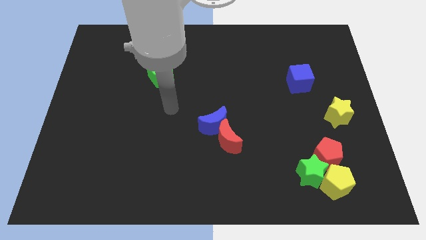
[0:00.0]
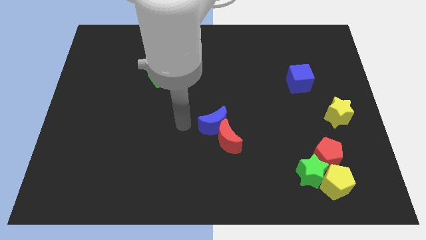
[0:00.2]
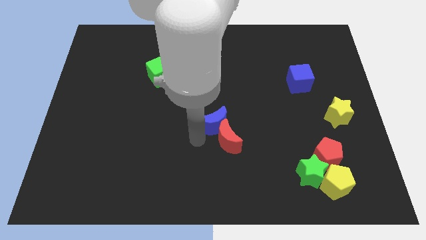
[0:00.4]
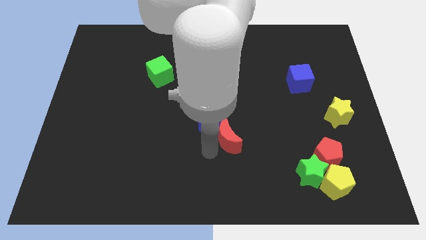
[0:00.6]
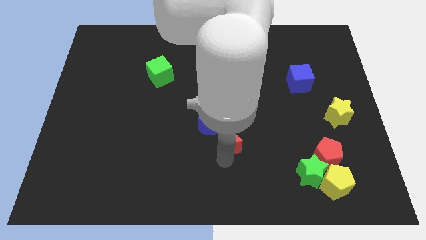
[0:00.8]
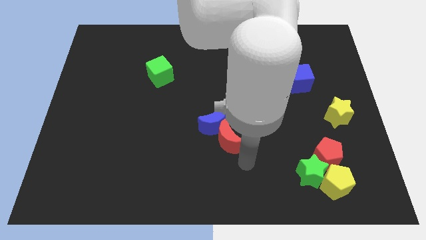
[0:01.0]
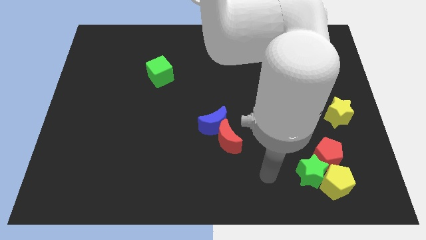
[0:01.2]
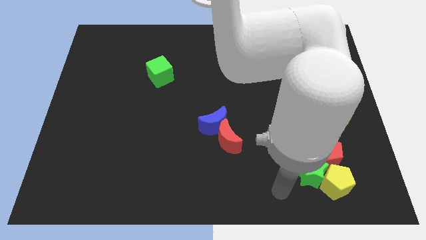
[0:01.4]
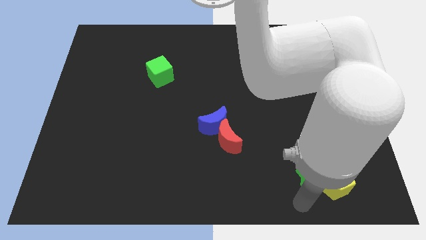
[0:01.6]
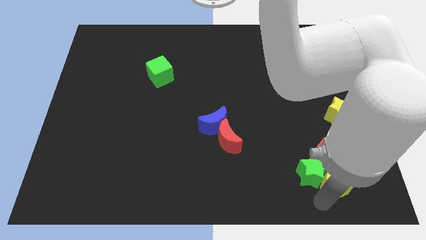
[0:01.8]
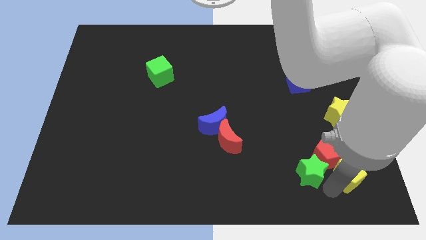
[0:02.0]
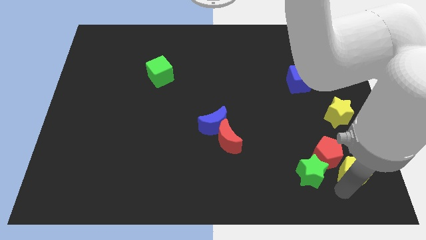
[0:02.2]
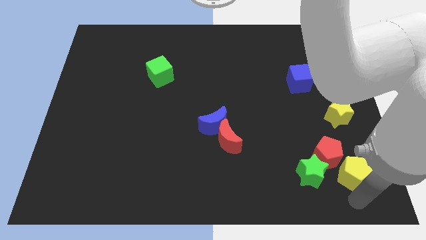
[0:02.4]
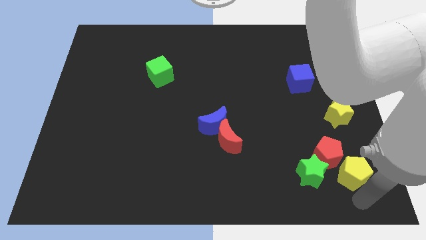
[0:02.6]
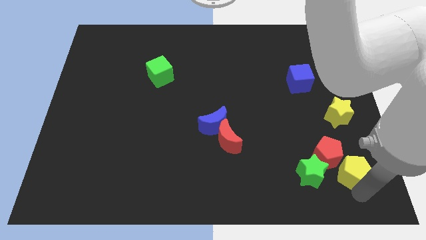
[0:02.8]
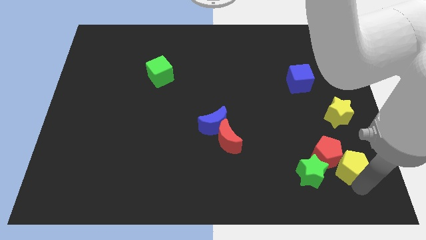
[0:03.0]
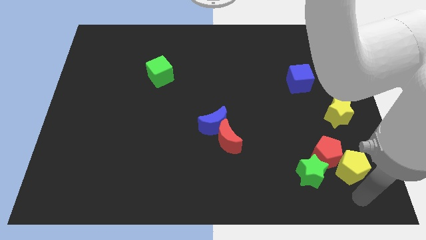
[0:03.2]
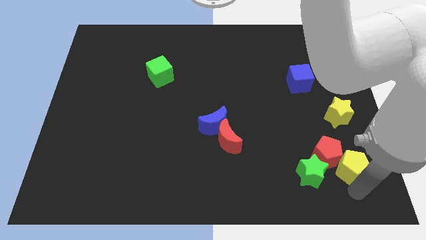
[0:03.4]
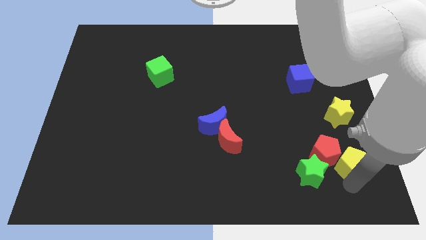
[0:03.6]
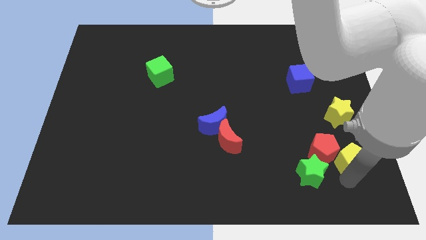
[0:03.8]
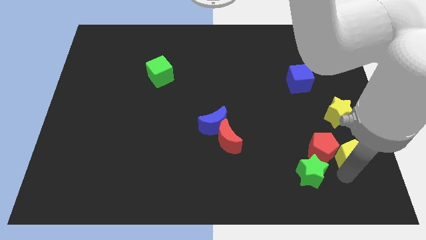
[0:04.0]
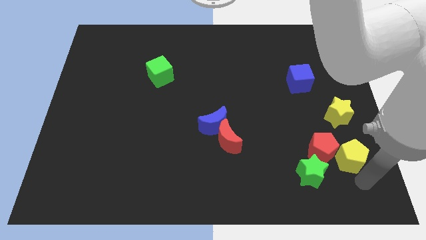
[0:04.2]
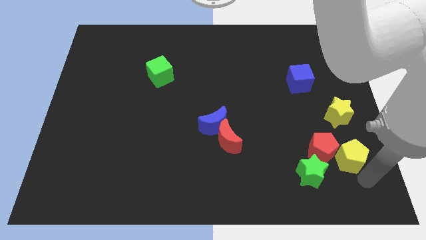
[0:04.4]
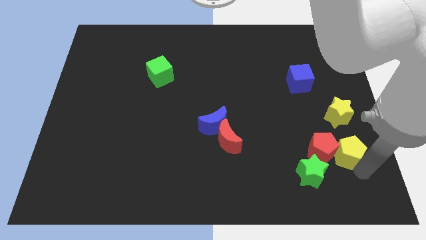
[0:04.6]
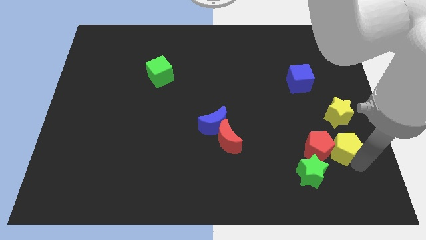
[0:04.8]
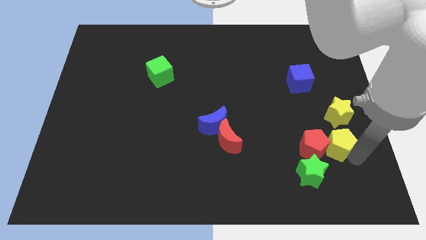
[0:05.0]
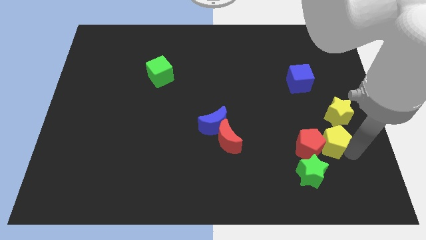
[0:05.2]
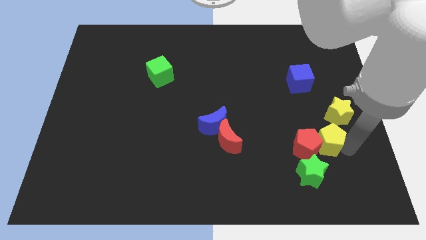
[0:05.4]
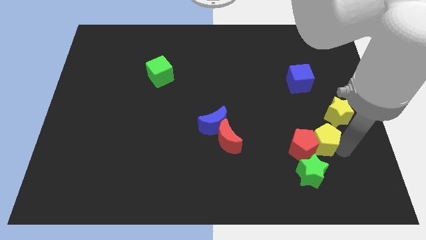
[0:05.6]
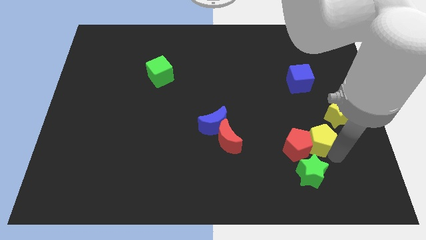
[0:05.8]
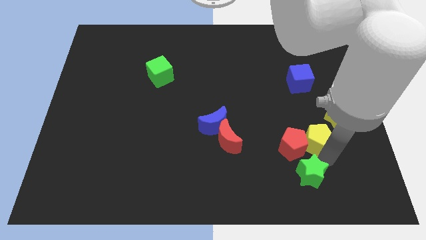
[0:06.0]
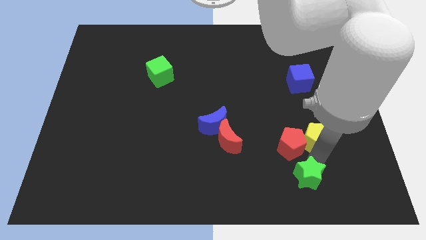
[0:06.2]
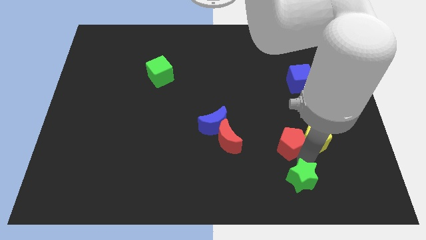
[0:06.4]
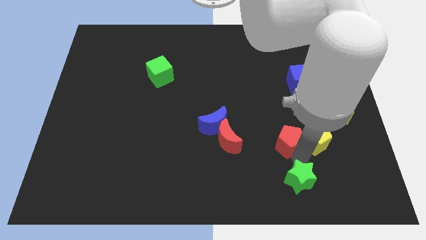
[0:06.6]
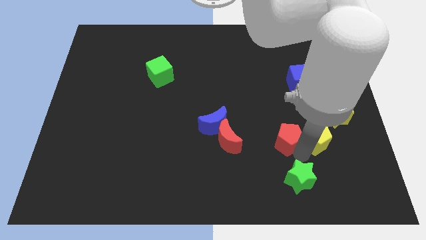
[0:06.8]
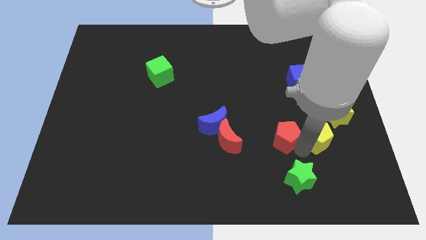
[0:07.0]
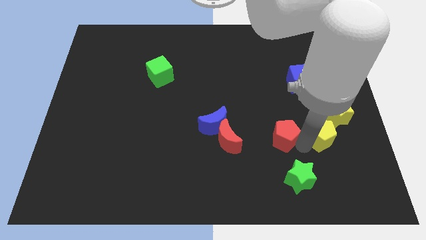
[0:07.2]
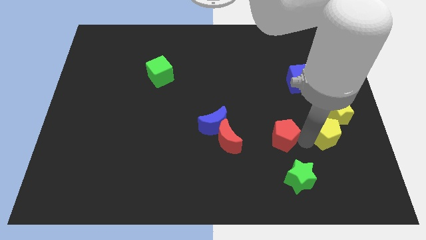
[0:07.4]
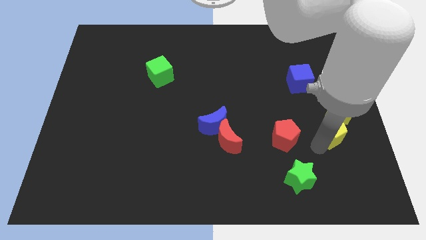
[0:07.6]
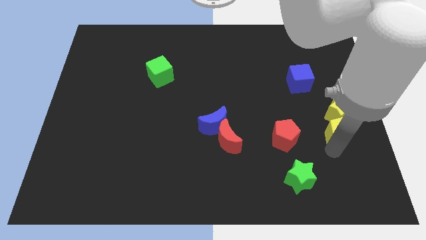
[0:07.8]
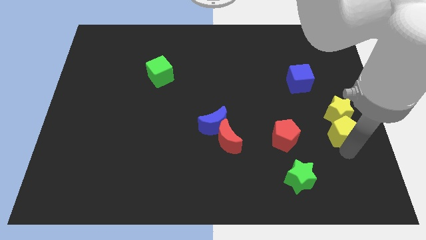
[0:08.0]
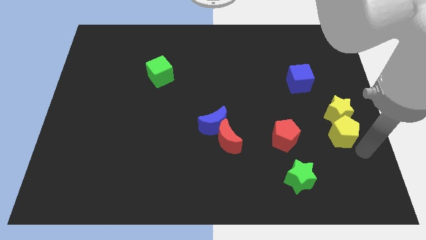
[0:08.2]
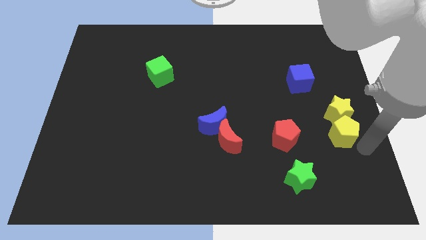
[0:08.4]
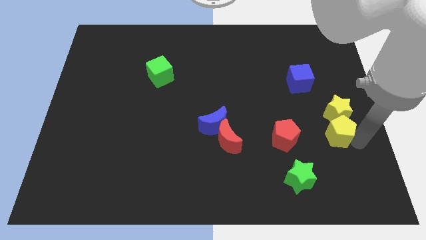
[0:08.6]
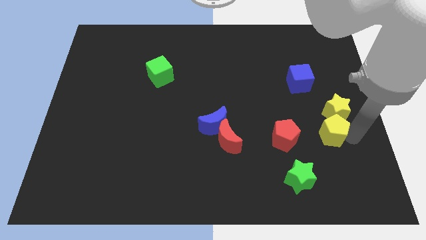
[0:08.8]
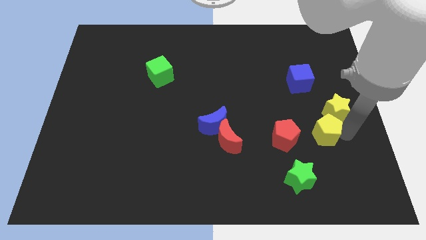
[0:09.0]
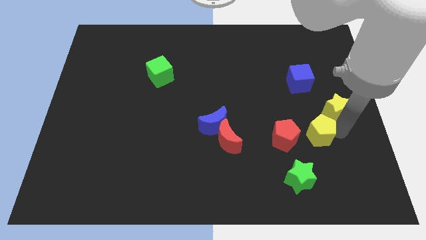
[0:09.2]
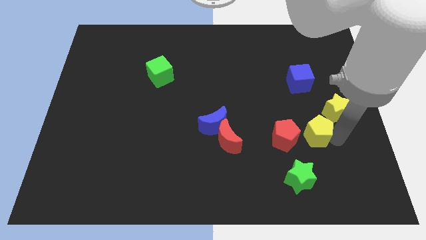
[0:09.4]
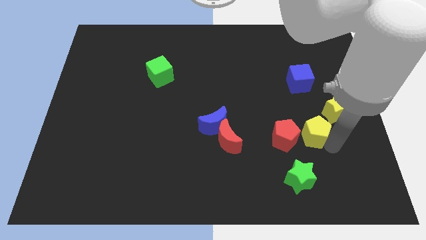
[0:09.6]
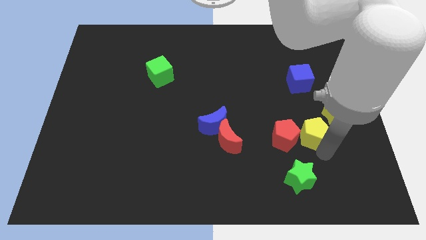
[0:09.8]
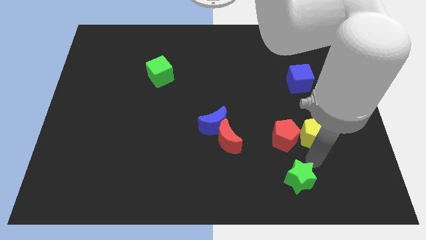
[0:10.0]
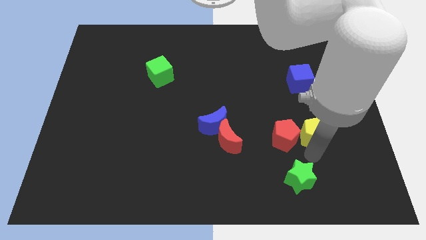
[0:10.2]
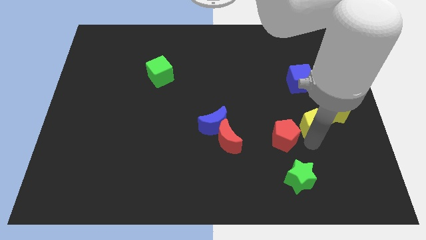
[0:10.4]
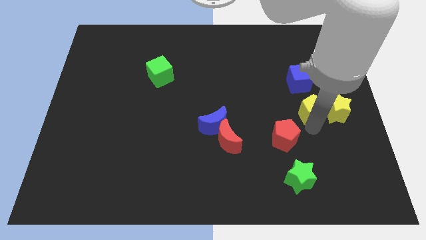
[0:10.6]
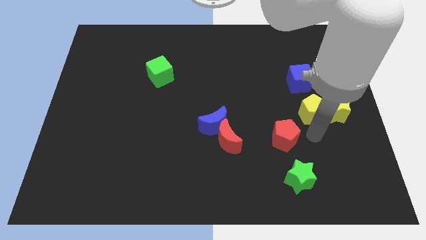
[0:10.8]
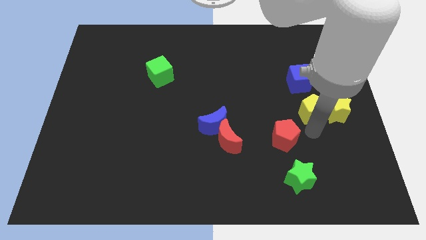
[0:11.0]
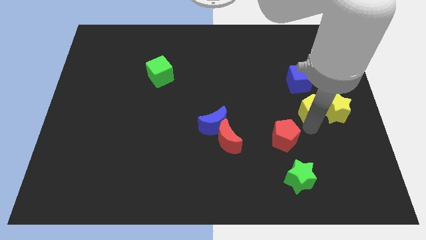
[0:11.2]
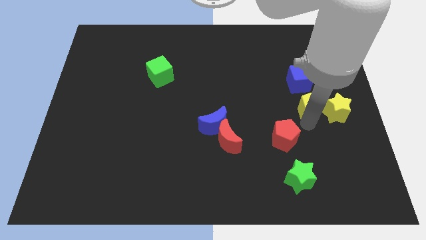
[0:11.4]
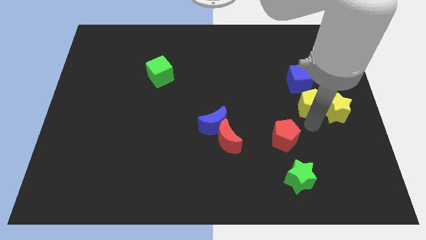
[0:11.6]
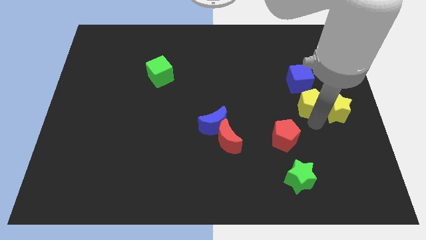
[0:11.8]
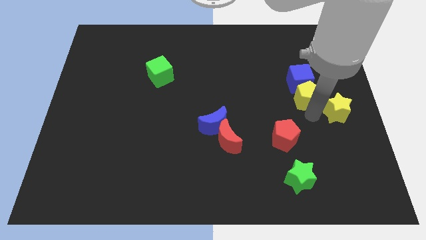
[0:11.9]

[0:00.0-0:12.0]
move the yellow pentagon close to the blue cube

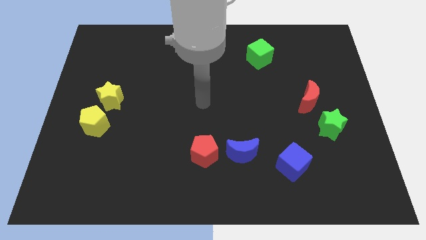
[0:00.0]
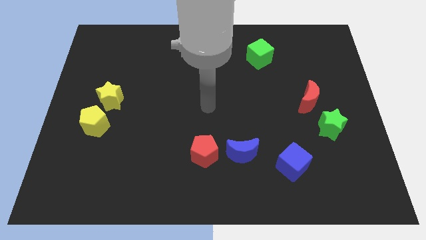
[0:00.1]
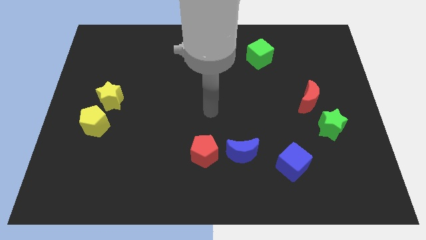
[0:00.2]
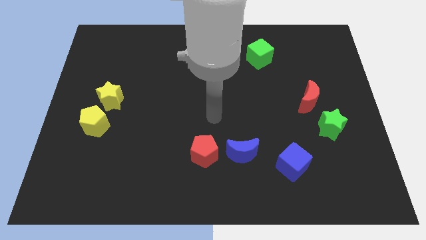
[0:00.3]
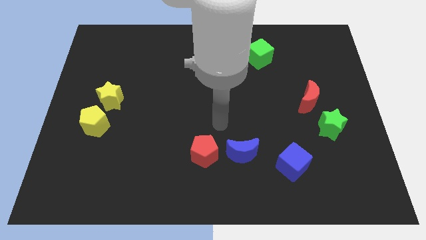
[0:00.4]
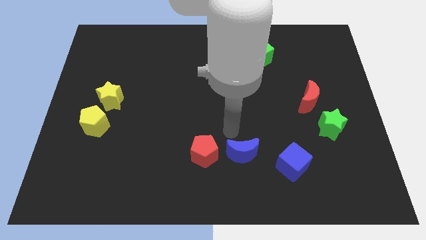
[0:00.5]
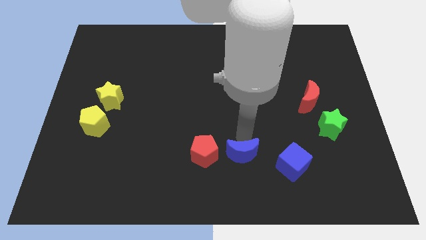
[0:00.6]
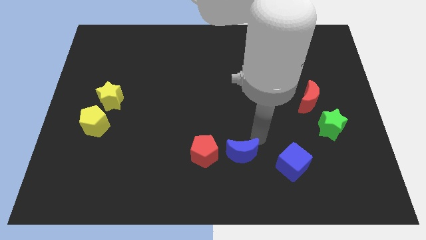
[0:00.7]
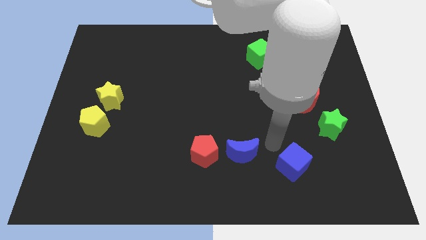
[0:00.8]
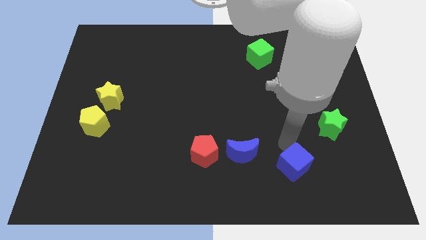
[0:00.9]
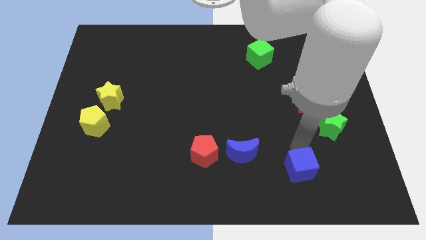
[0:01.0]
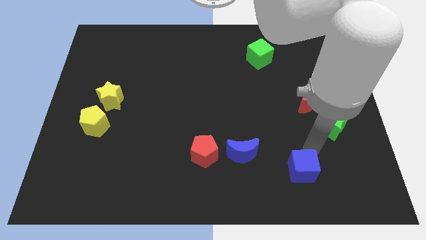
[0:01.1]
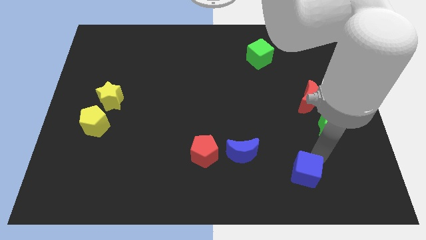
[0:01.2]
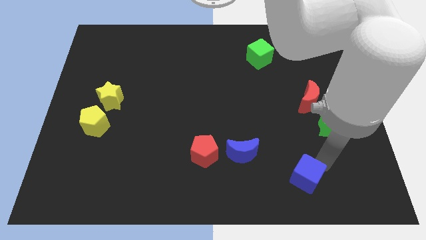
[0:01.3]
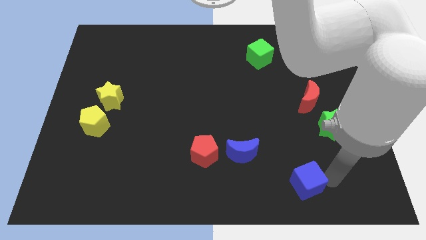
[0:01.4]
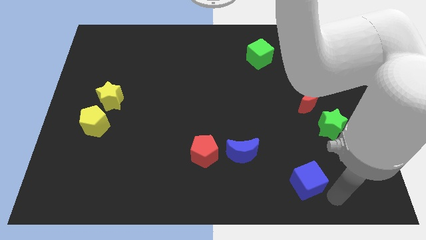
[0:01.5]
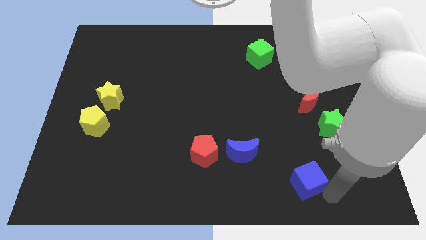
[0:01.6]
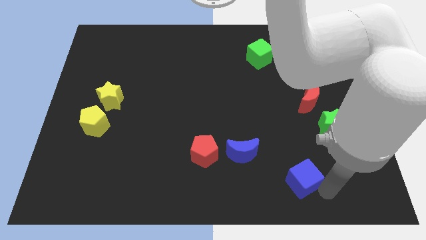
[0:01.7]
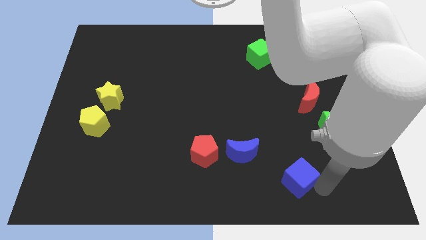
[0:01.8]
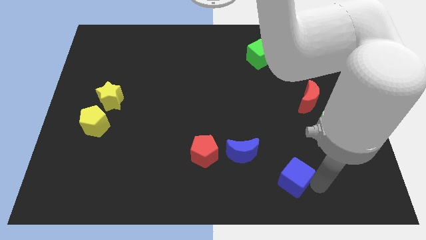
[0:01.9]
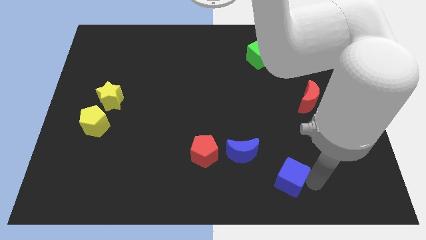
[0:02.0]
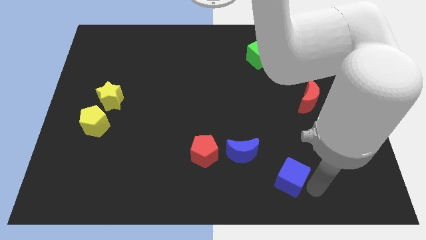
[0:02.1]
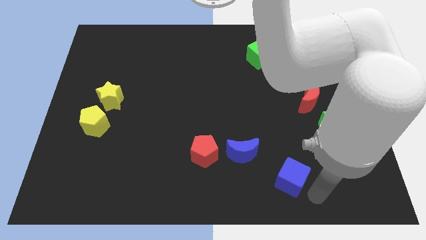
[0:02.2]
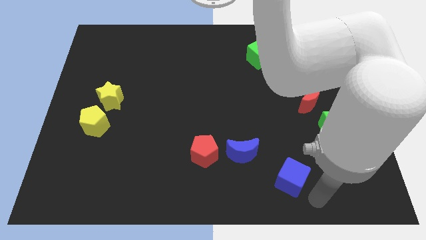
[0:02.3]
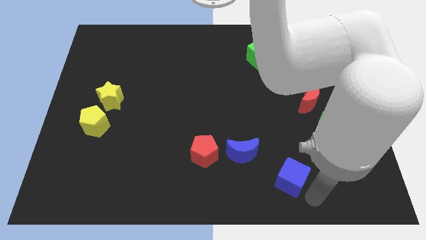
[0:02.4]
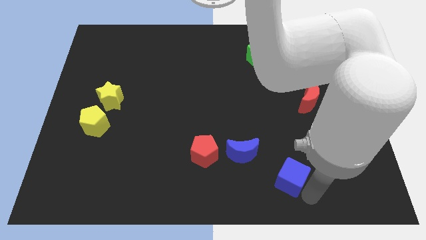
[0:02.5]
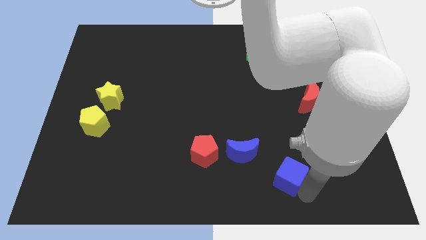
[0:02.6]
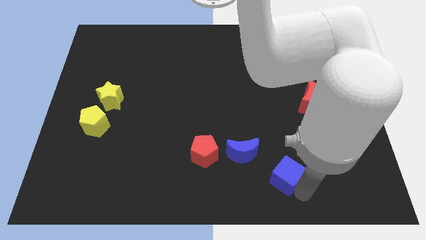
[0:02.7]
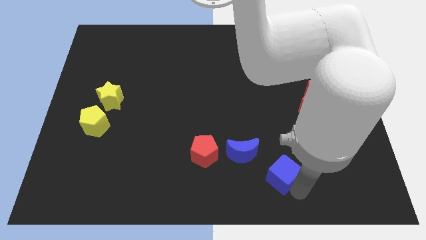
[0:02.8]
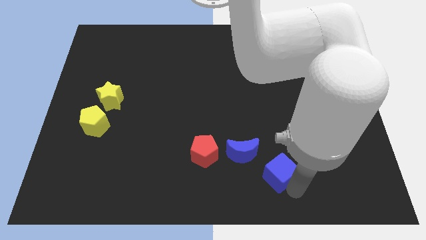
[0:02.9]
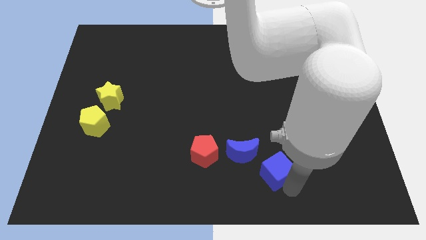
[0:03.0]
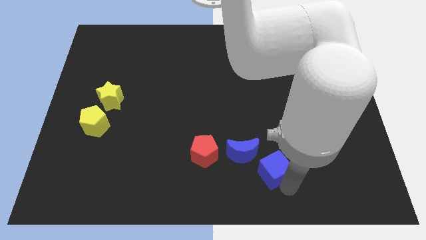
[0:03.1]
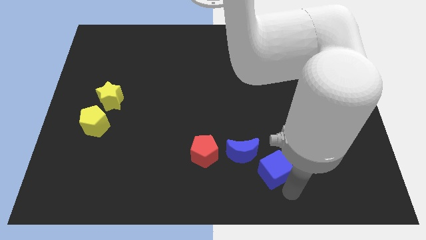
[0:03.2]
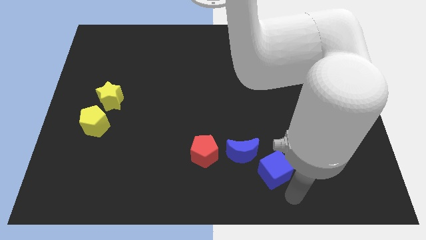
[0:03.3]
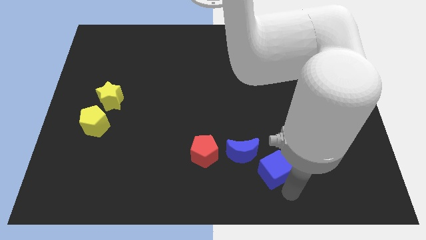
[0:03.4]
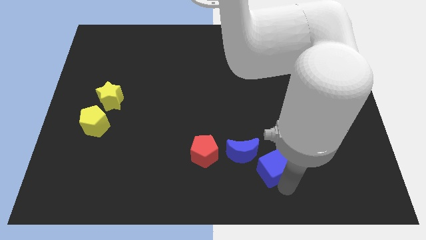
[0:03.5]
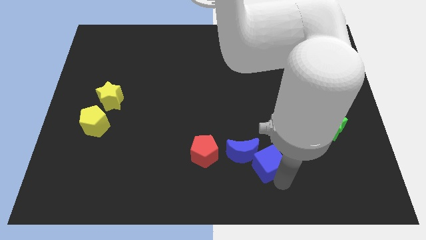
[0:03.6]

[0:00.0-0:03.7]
push the blue cube towards the blue moon
